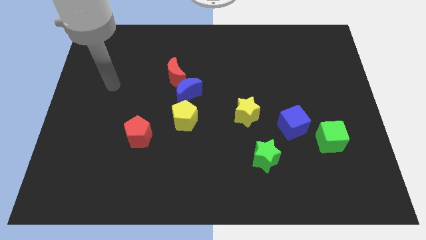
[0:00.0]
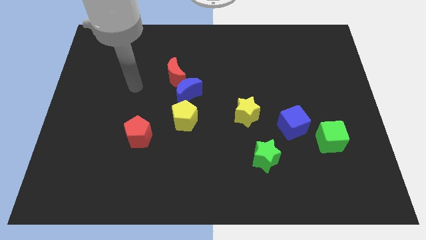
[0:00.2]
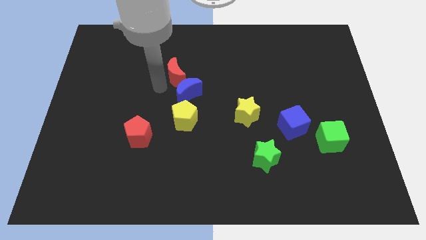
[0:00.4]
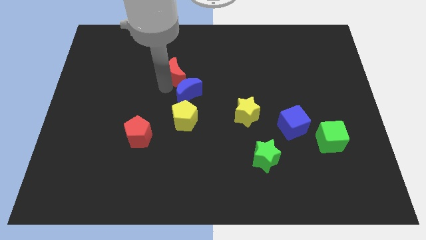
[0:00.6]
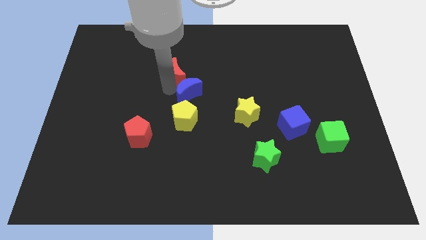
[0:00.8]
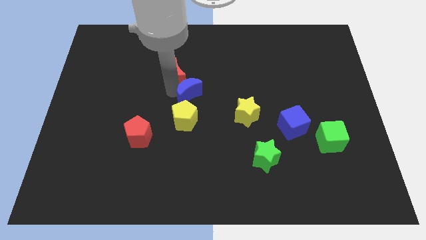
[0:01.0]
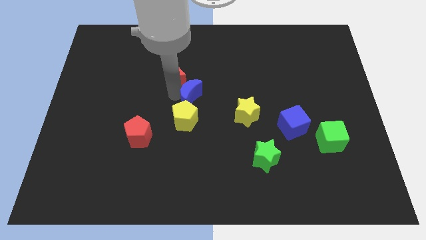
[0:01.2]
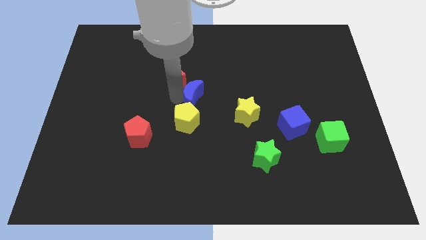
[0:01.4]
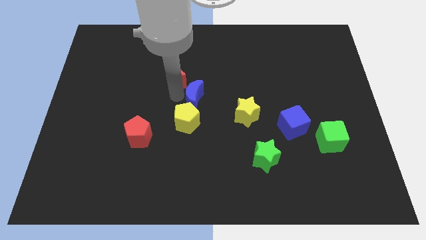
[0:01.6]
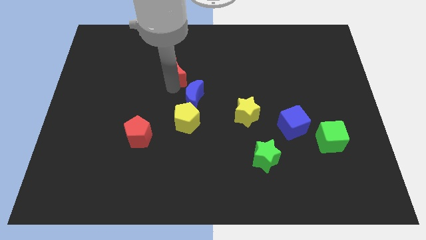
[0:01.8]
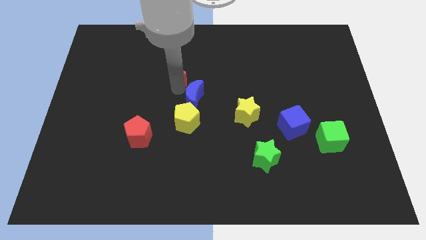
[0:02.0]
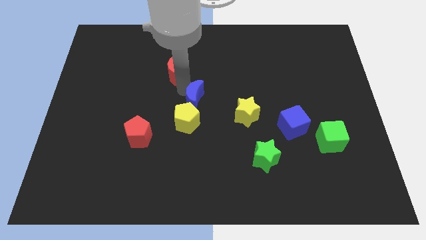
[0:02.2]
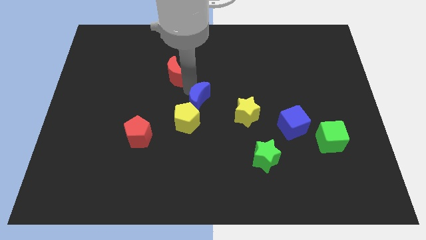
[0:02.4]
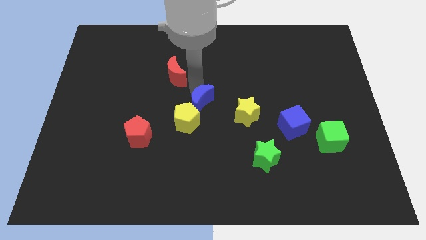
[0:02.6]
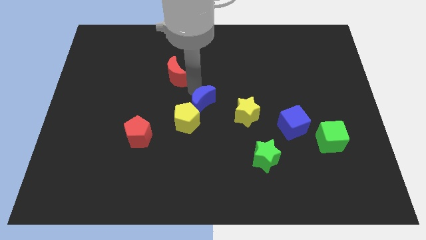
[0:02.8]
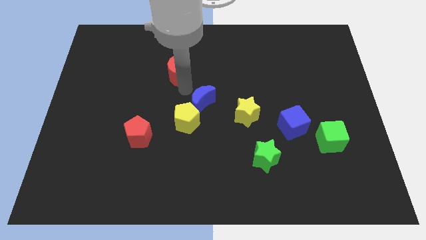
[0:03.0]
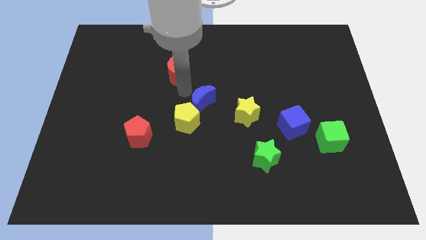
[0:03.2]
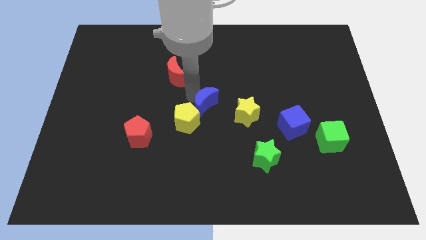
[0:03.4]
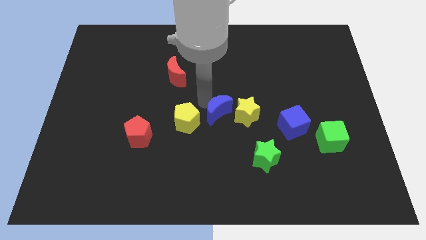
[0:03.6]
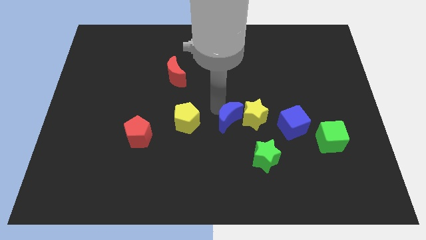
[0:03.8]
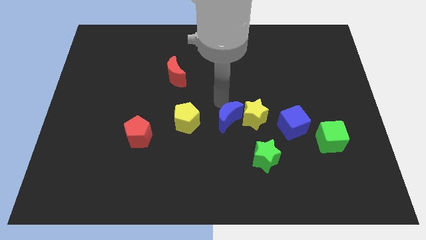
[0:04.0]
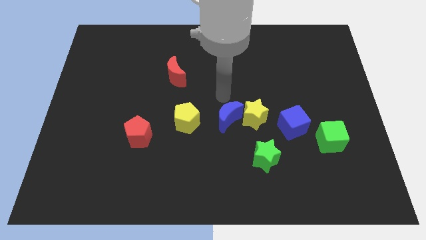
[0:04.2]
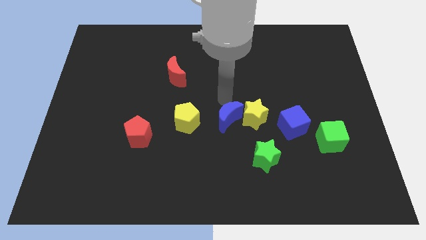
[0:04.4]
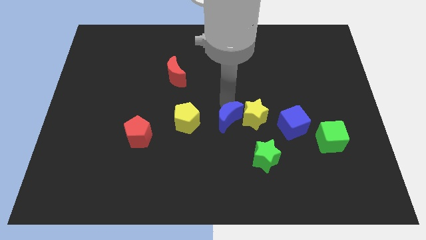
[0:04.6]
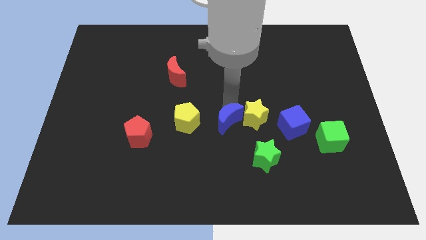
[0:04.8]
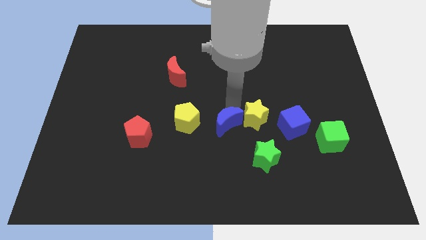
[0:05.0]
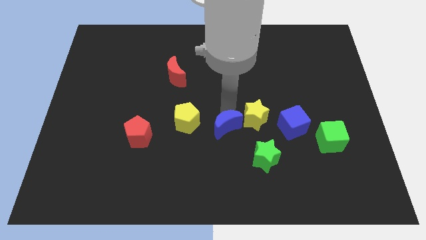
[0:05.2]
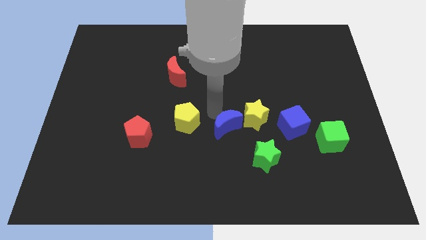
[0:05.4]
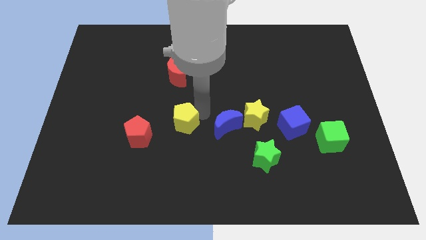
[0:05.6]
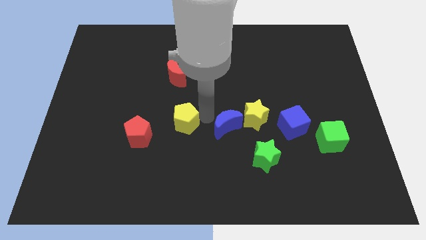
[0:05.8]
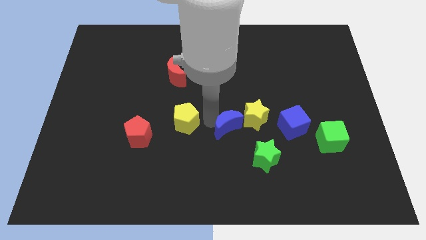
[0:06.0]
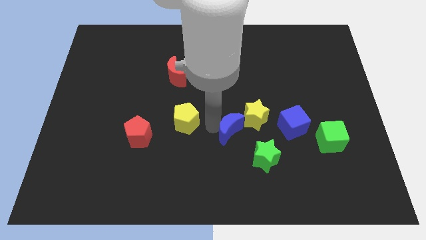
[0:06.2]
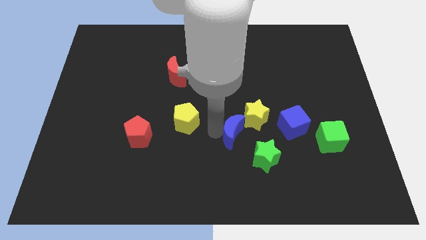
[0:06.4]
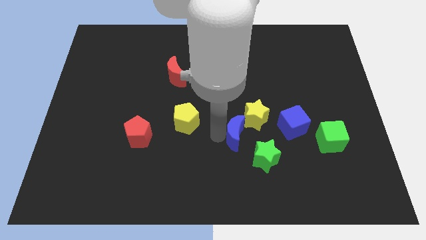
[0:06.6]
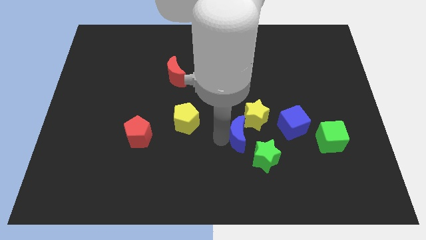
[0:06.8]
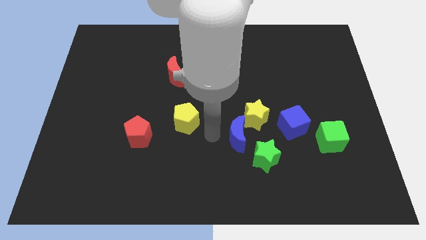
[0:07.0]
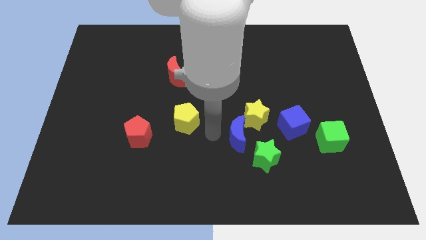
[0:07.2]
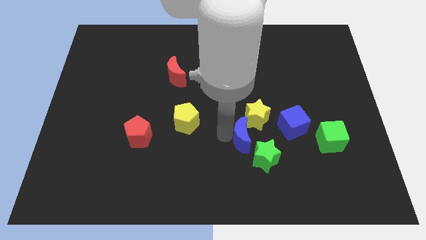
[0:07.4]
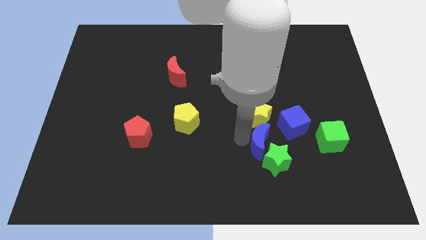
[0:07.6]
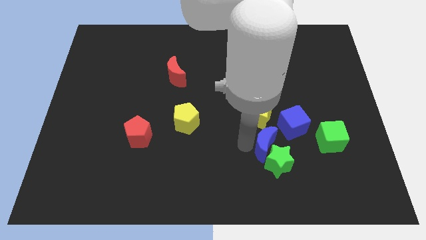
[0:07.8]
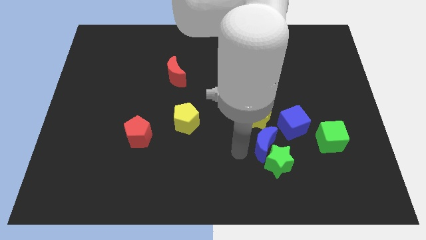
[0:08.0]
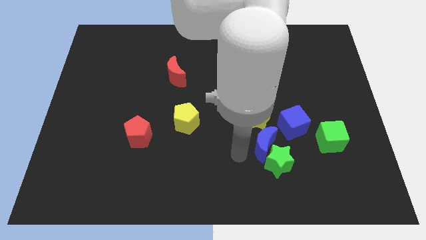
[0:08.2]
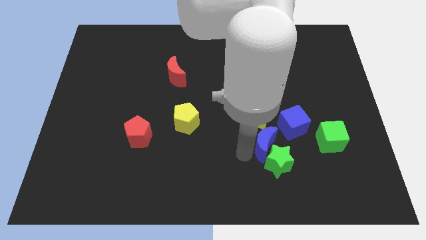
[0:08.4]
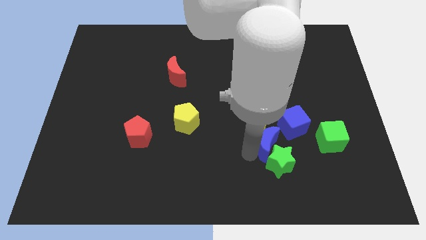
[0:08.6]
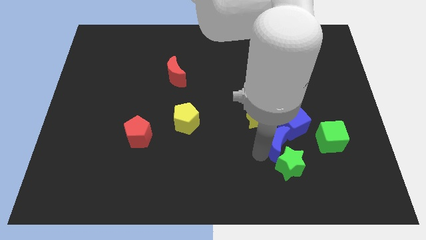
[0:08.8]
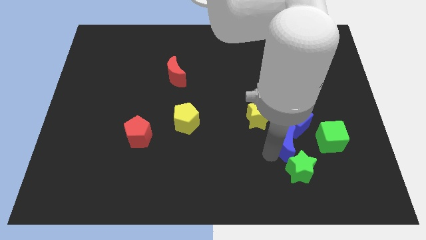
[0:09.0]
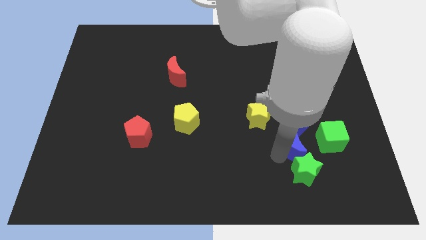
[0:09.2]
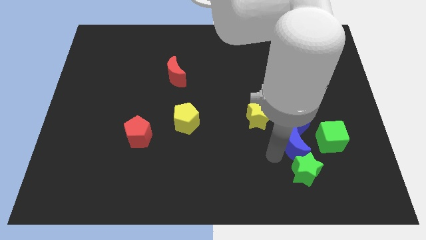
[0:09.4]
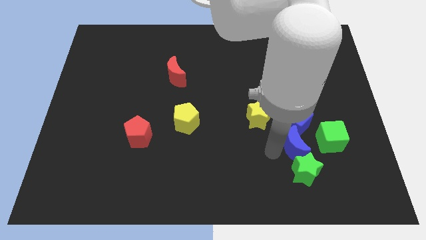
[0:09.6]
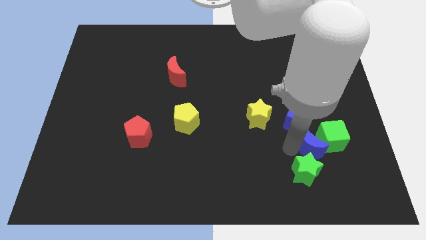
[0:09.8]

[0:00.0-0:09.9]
put the blue moon next to the green cube

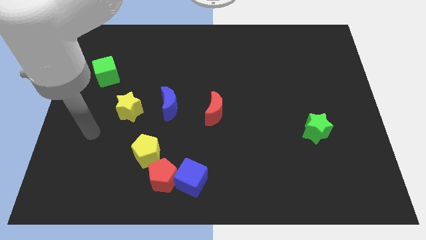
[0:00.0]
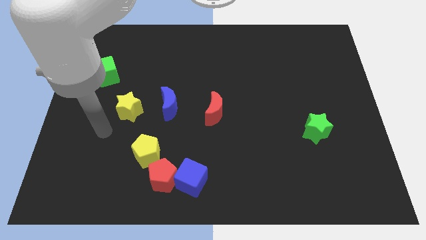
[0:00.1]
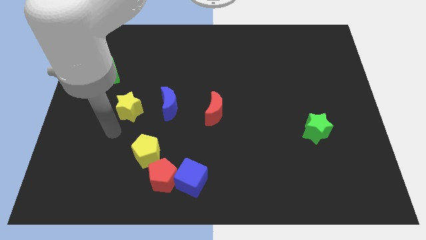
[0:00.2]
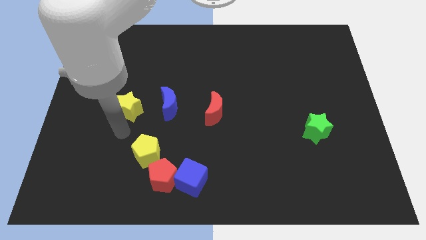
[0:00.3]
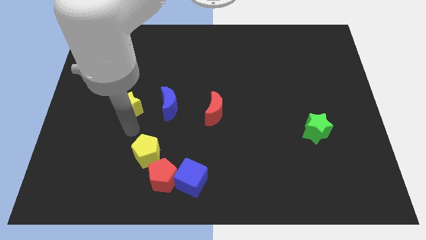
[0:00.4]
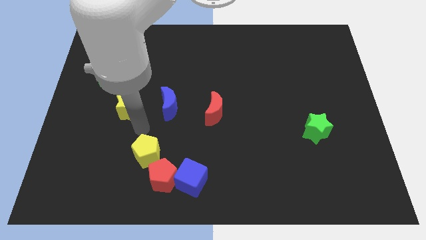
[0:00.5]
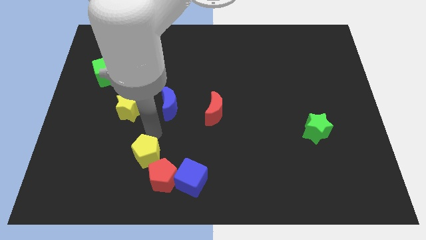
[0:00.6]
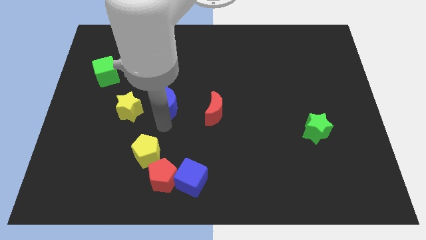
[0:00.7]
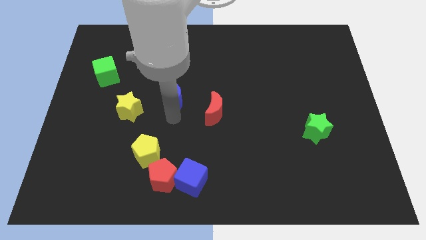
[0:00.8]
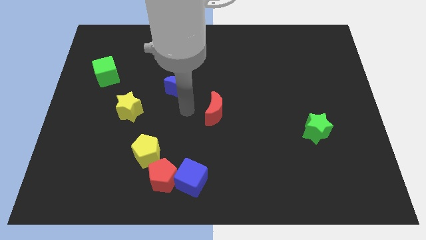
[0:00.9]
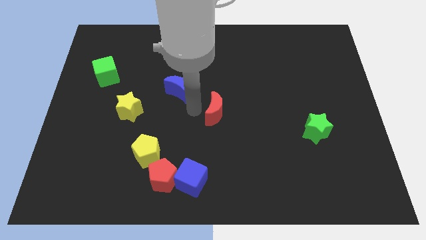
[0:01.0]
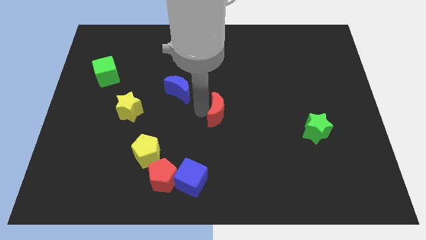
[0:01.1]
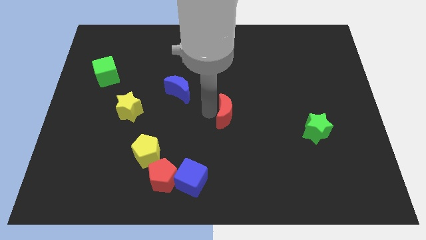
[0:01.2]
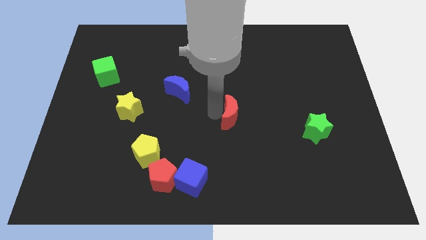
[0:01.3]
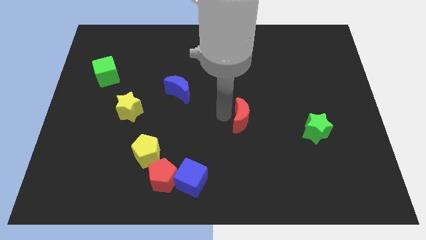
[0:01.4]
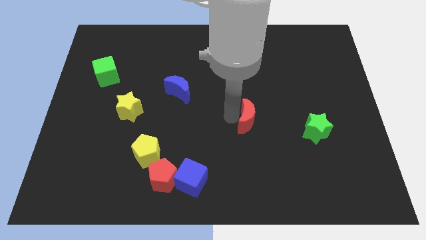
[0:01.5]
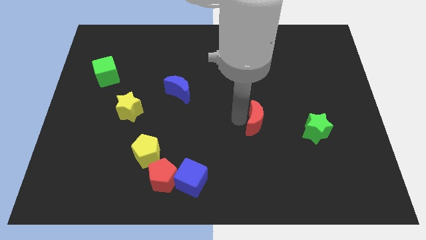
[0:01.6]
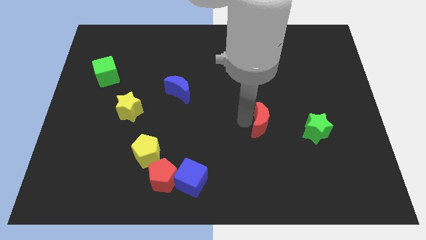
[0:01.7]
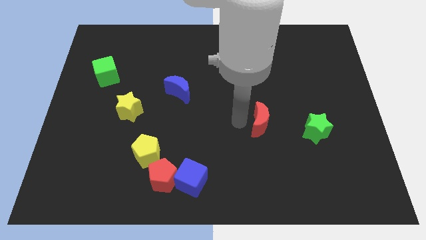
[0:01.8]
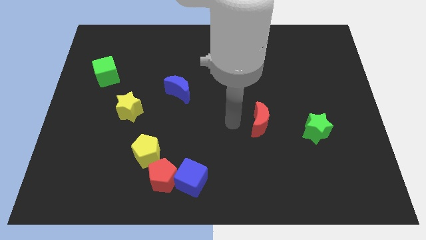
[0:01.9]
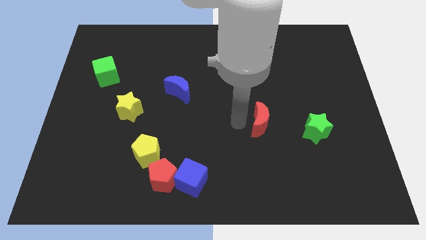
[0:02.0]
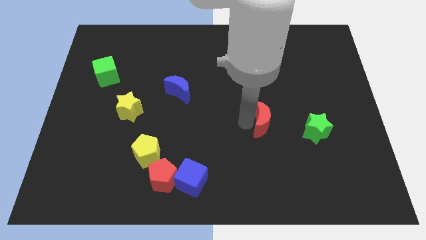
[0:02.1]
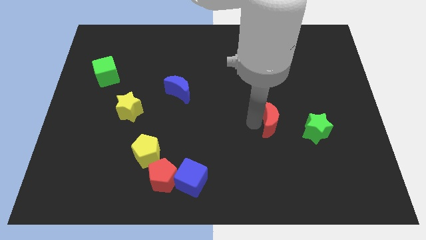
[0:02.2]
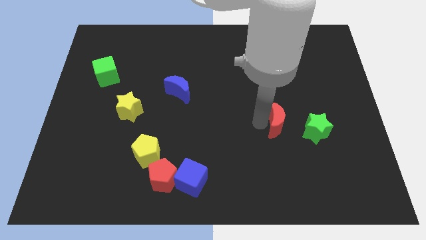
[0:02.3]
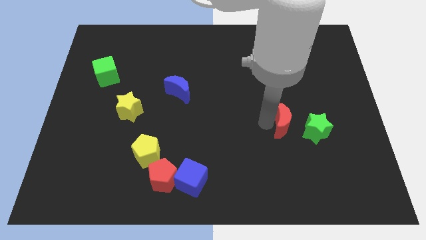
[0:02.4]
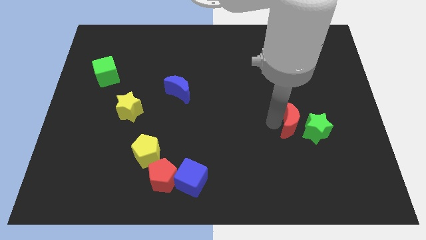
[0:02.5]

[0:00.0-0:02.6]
put the red moon next to the green star
